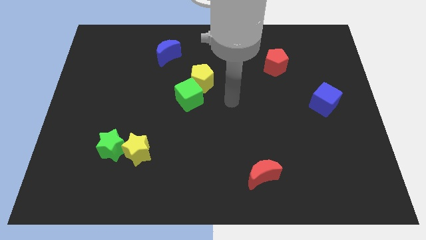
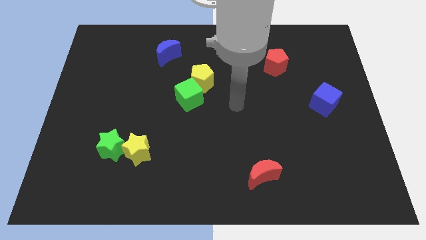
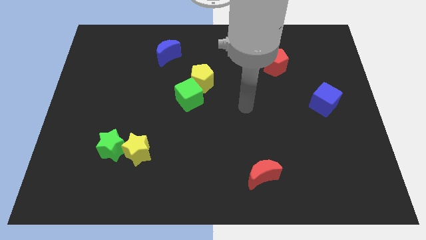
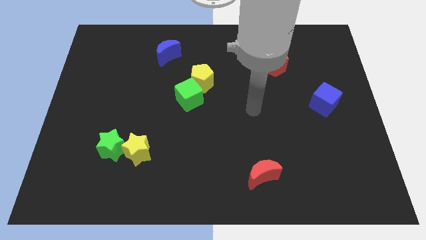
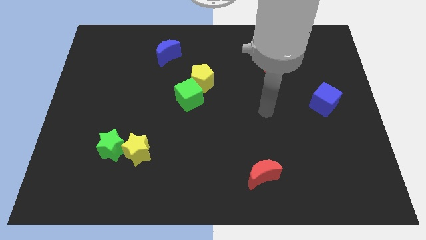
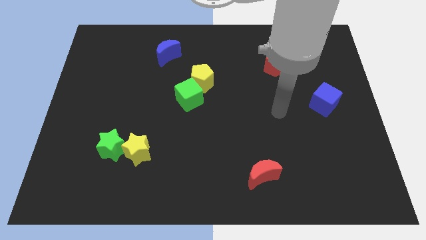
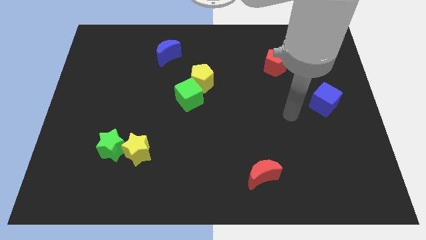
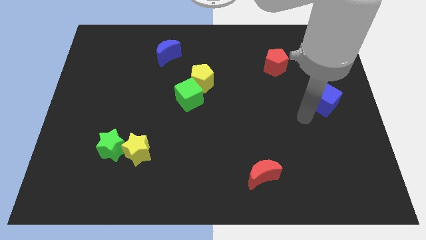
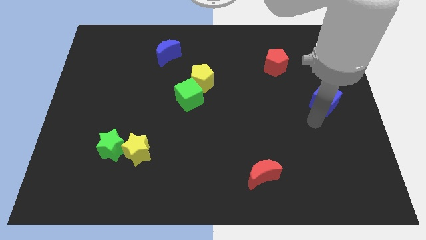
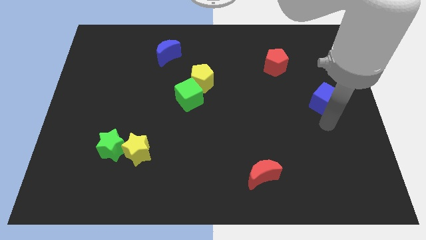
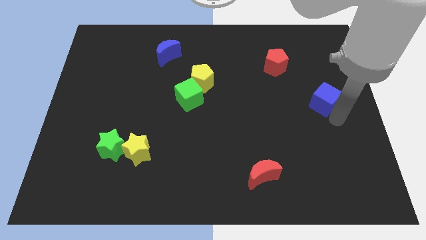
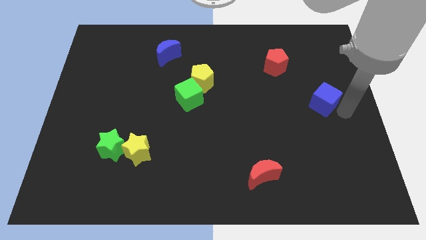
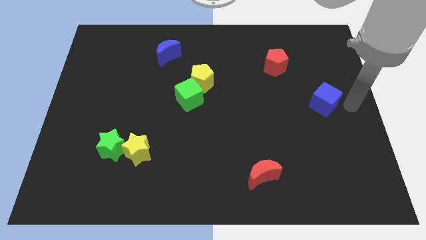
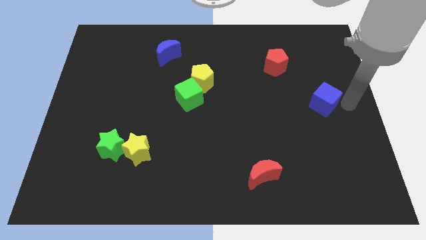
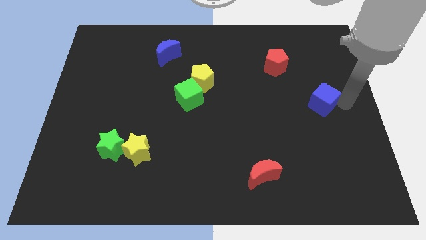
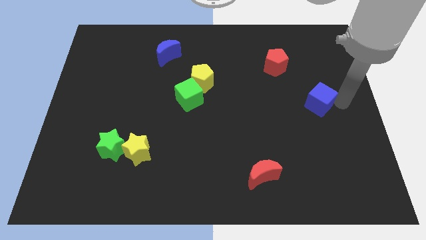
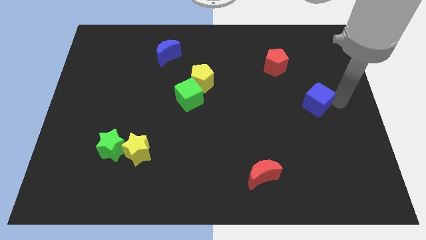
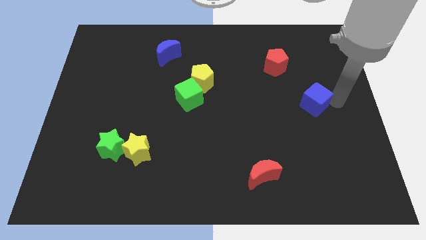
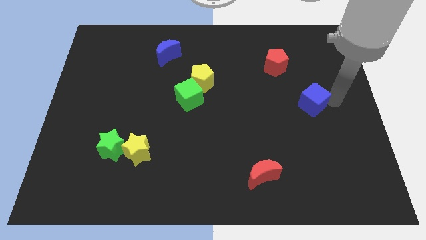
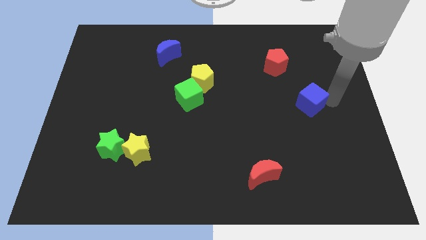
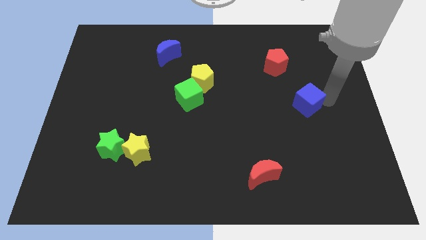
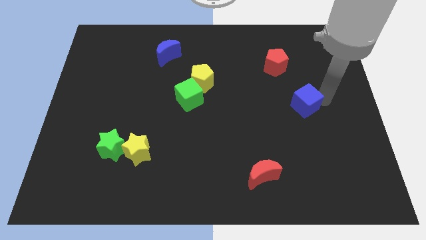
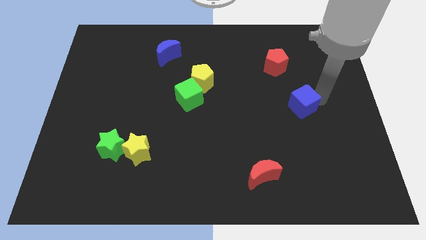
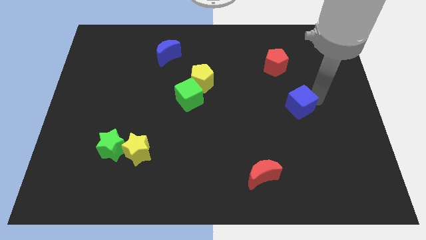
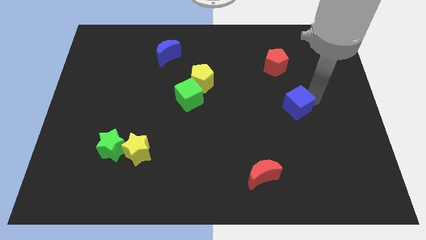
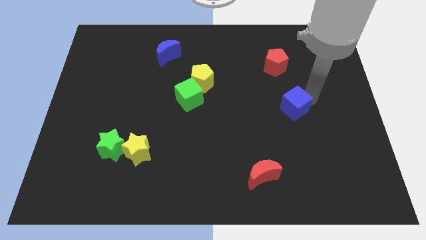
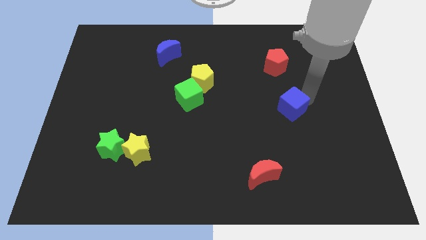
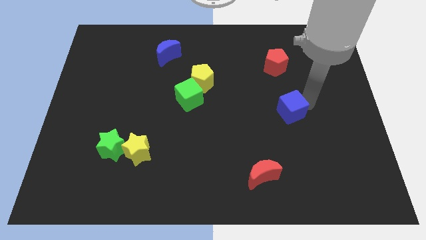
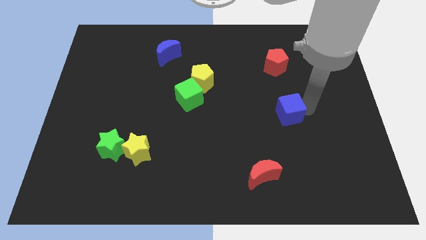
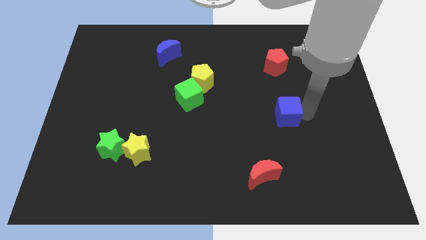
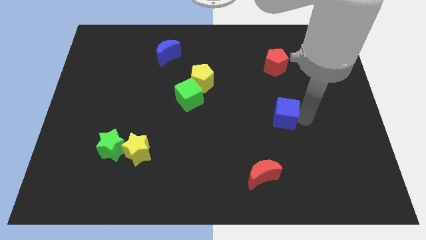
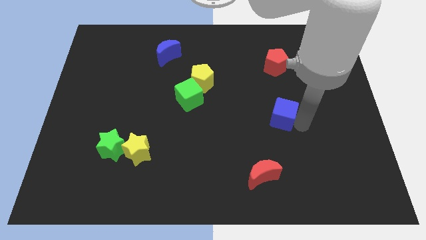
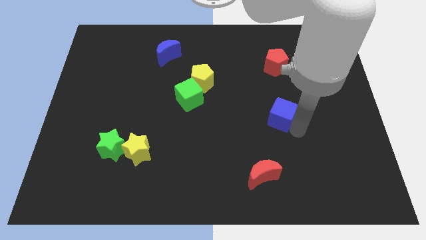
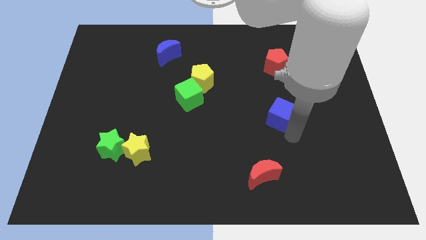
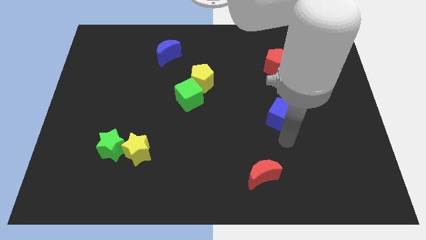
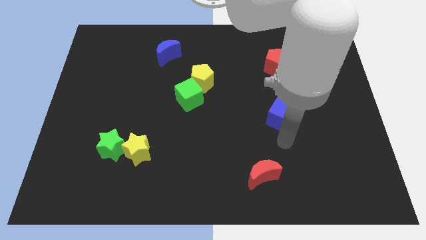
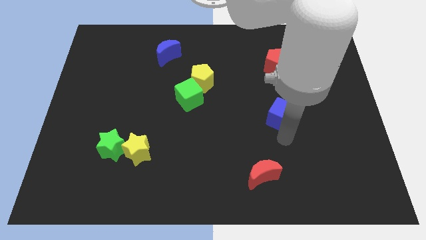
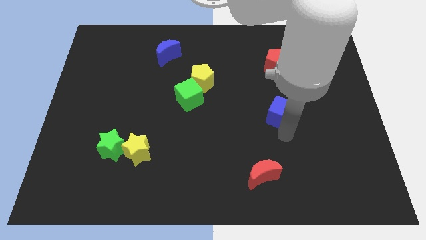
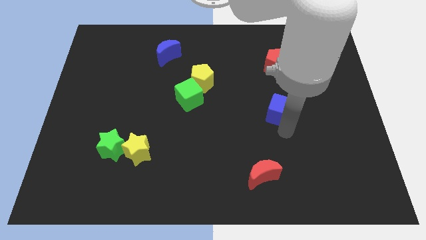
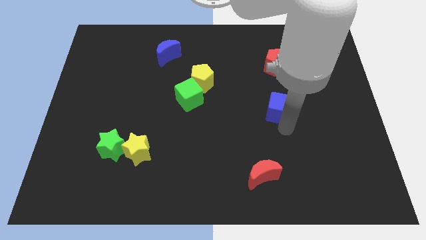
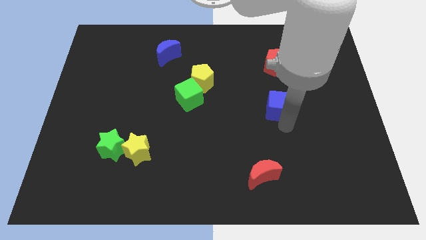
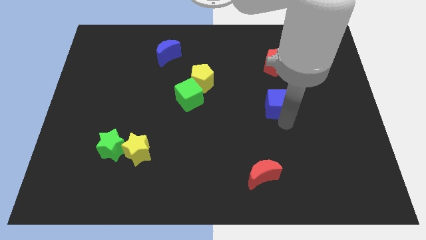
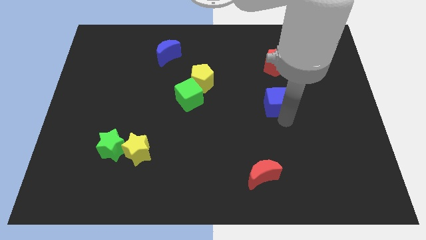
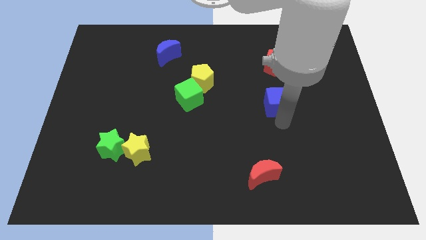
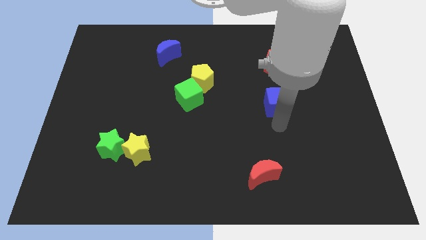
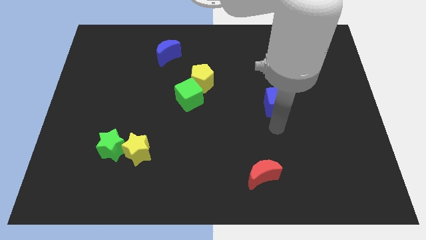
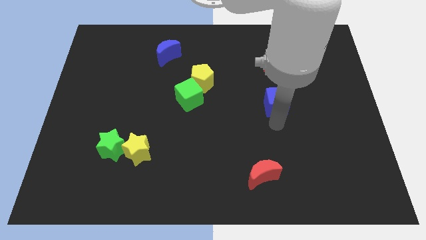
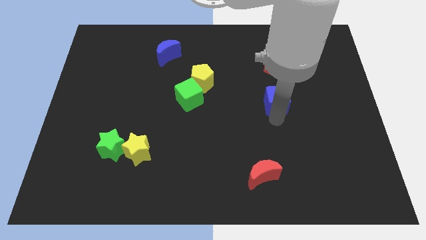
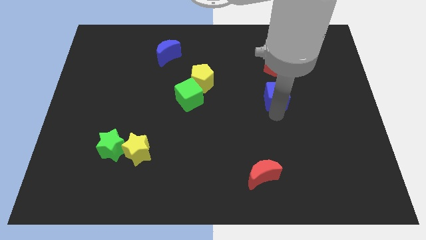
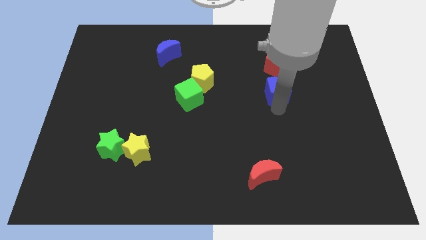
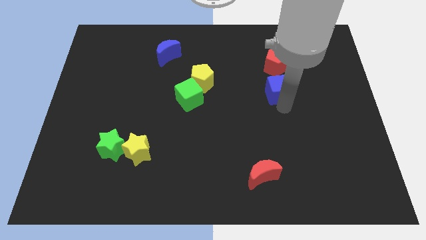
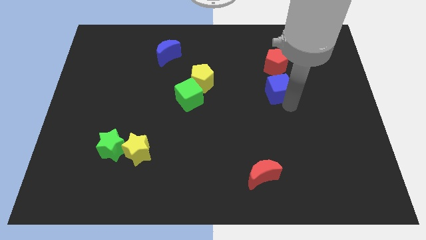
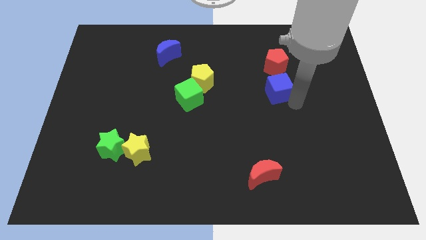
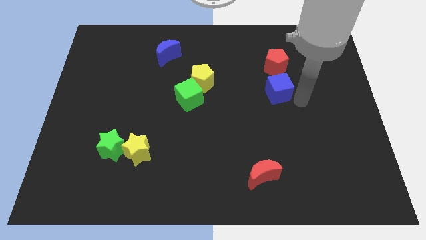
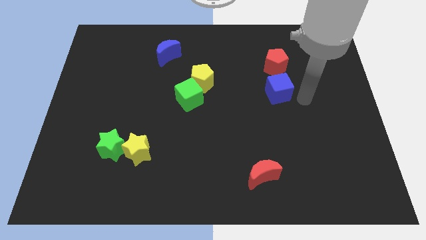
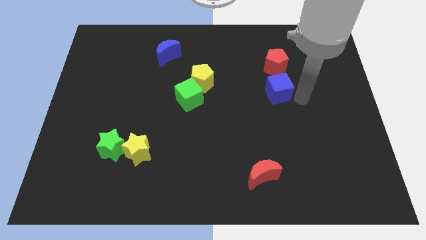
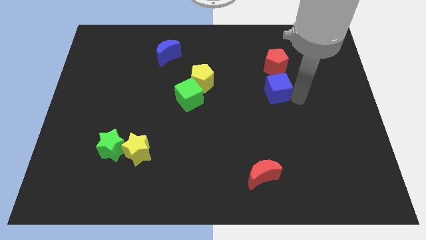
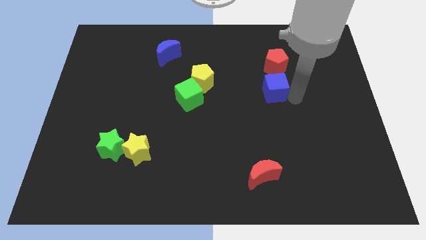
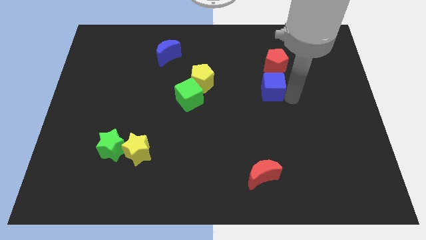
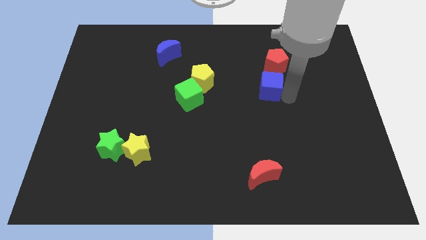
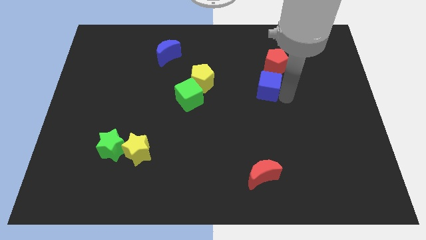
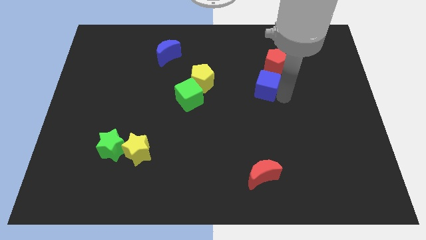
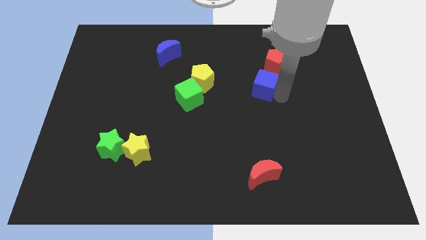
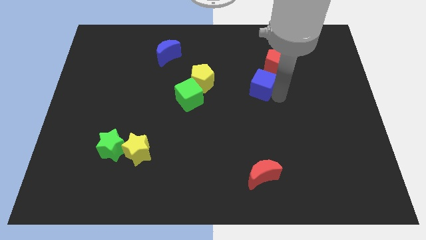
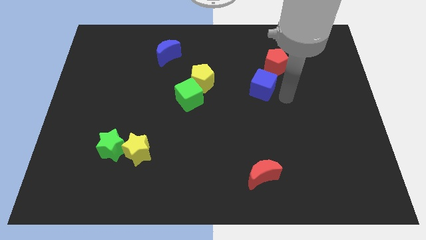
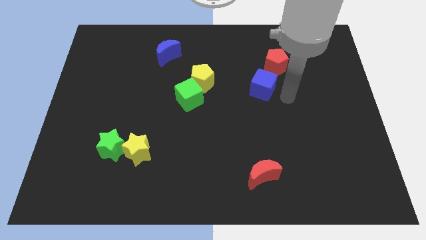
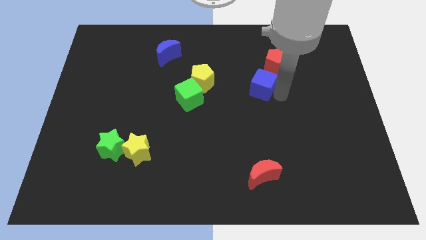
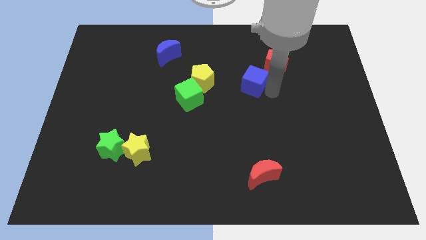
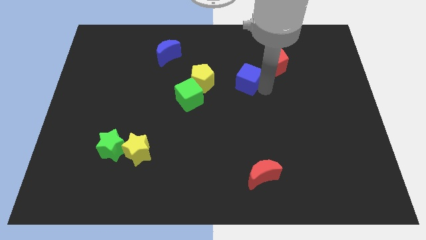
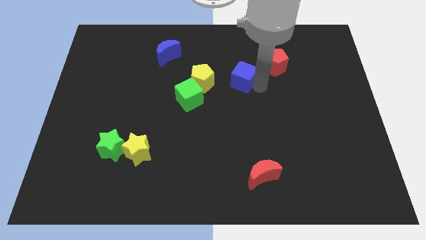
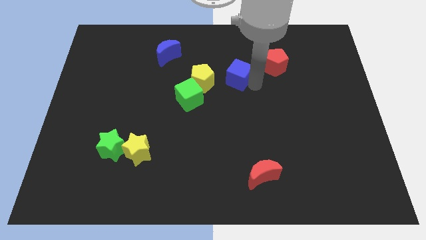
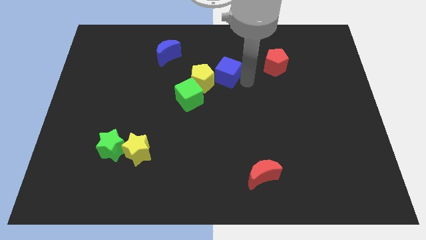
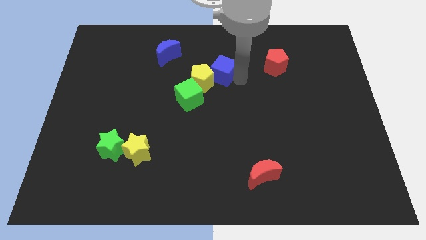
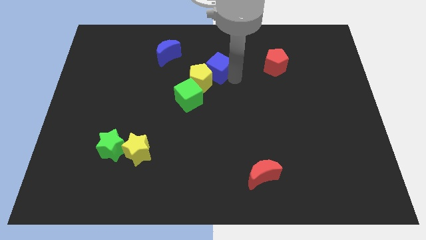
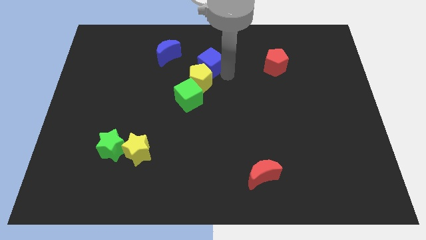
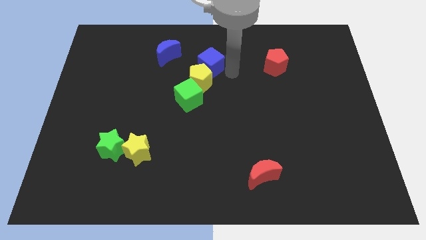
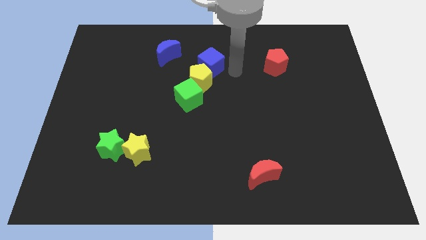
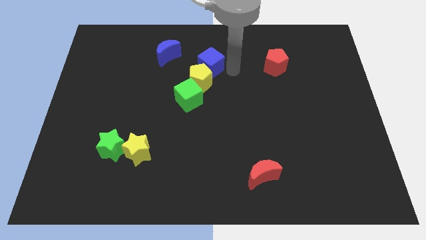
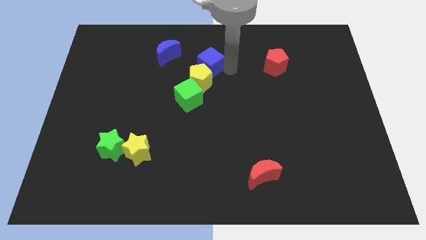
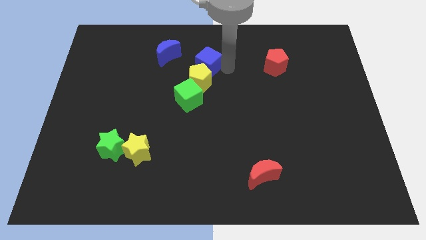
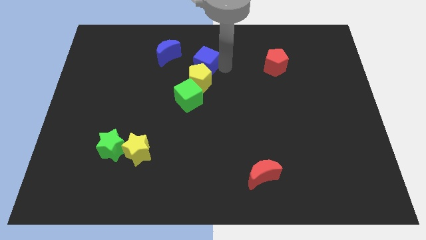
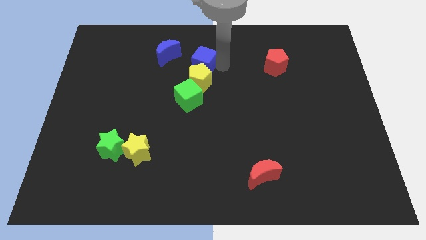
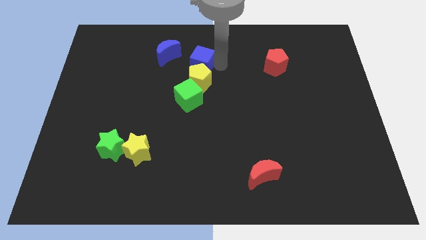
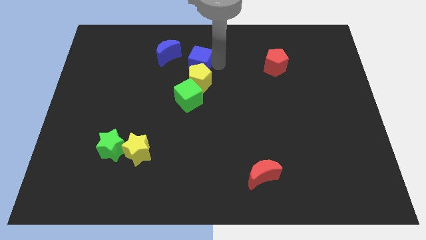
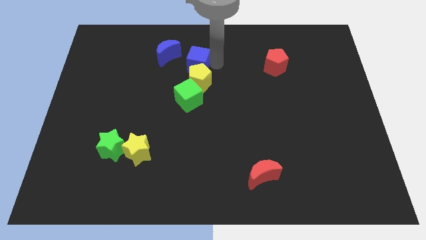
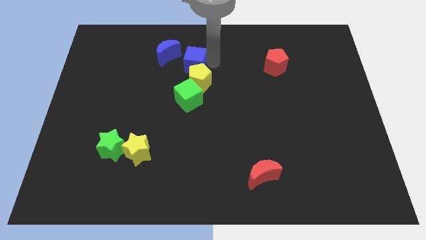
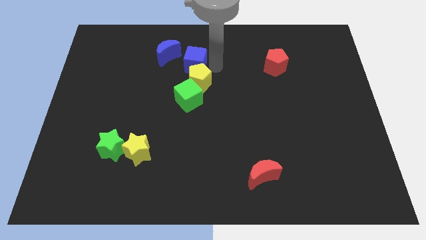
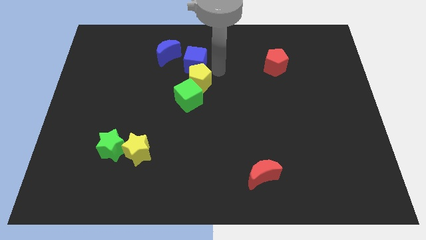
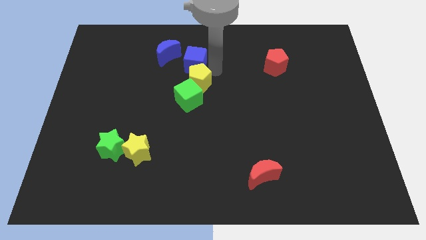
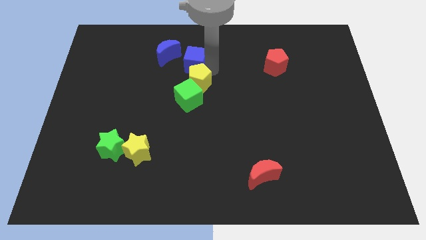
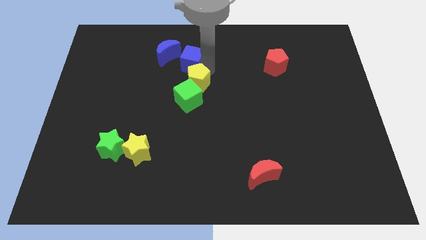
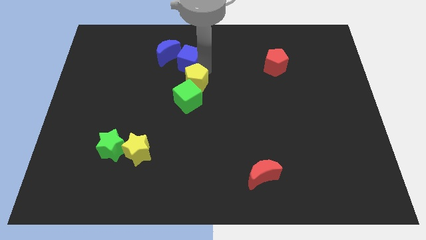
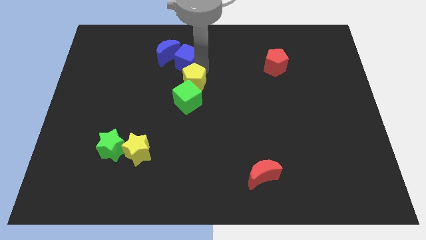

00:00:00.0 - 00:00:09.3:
put the blue cube next to the blue moon
